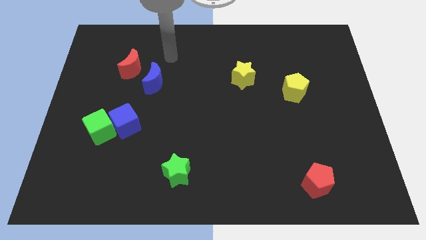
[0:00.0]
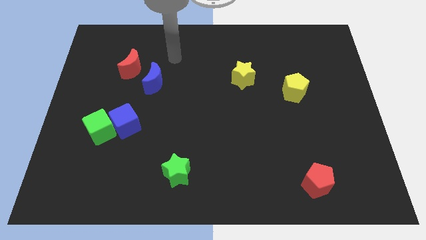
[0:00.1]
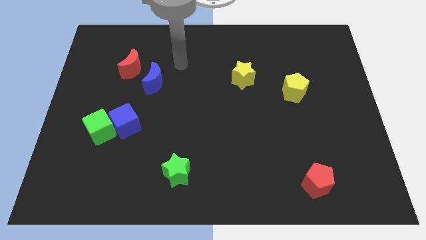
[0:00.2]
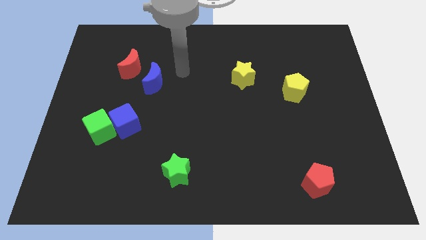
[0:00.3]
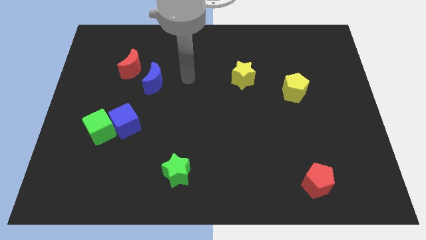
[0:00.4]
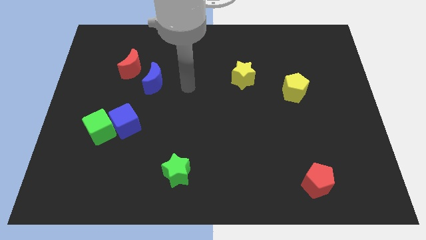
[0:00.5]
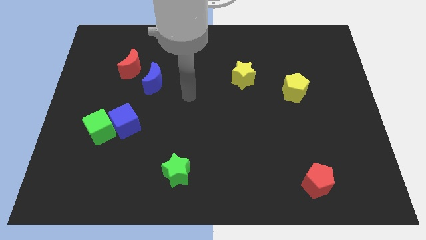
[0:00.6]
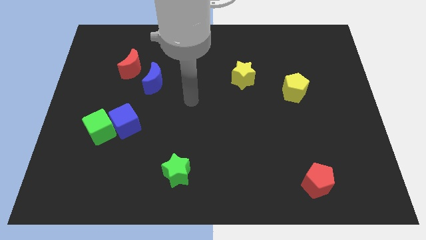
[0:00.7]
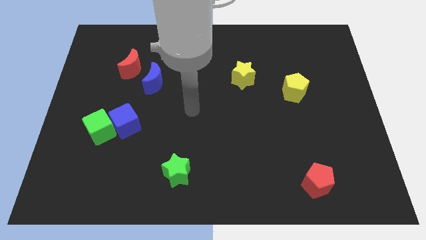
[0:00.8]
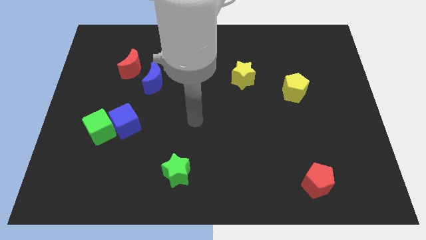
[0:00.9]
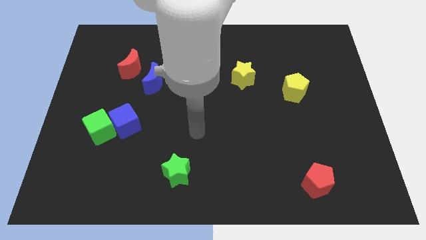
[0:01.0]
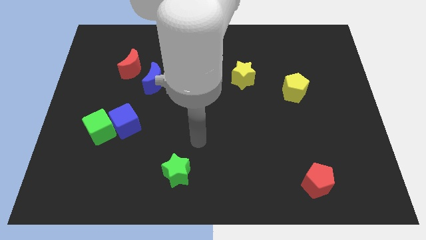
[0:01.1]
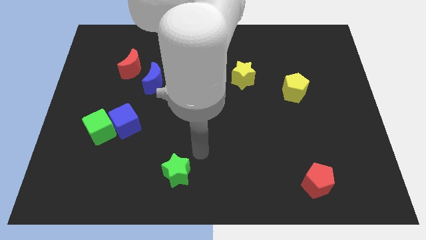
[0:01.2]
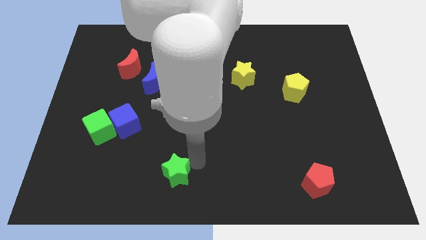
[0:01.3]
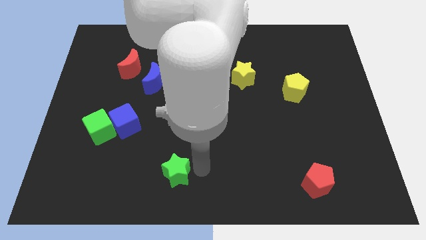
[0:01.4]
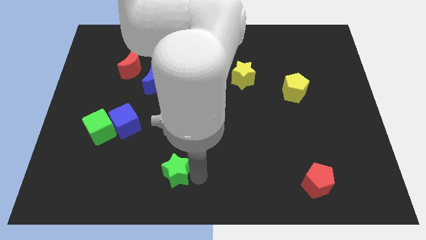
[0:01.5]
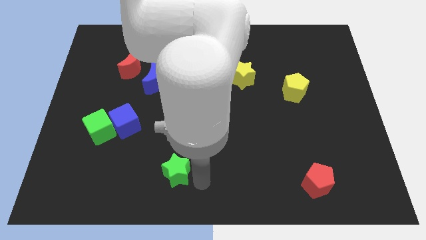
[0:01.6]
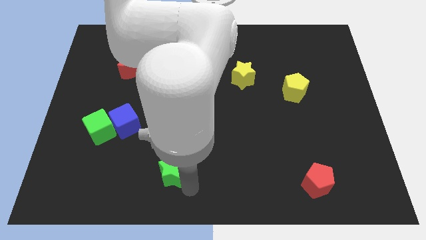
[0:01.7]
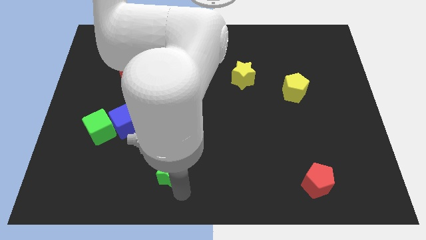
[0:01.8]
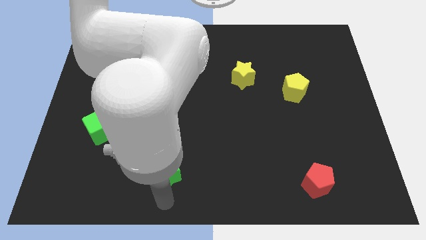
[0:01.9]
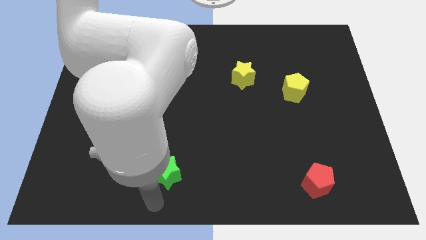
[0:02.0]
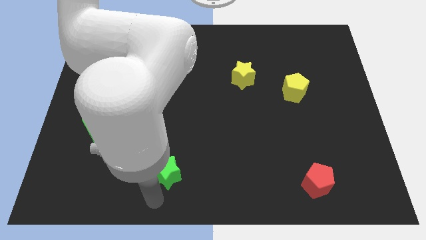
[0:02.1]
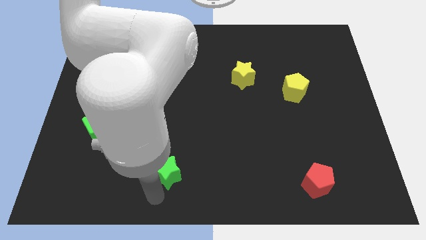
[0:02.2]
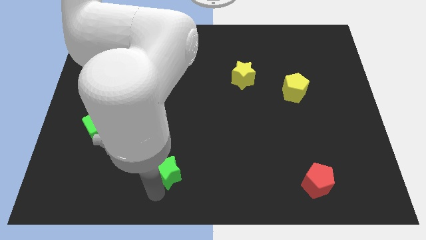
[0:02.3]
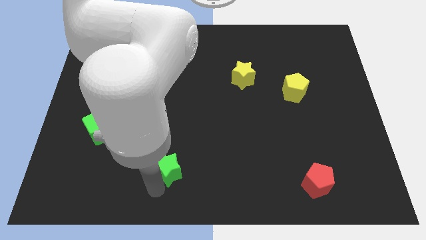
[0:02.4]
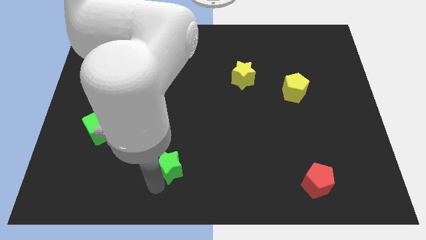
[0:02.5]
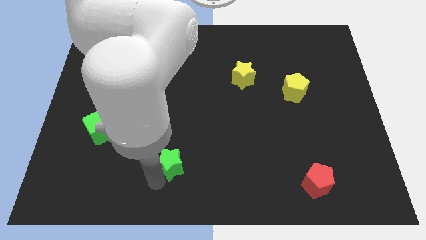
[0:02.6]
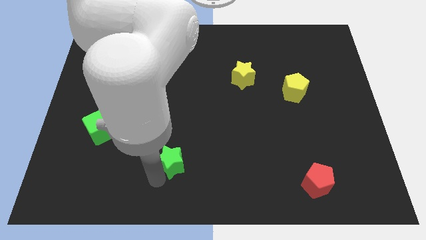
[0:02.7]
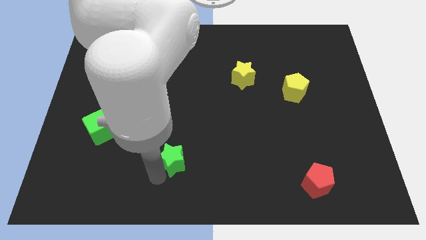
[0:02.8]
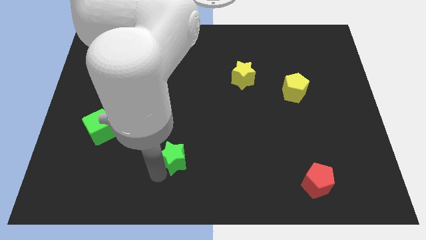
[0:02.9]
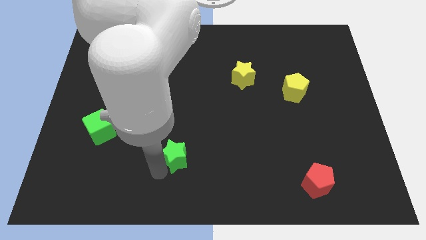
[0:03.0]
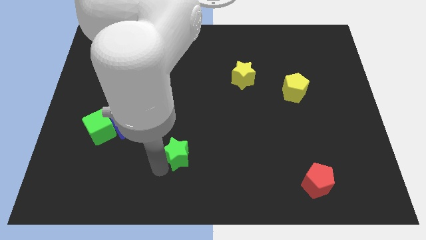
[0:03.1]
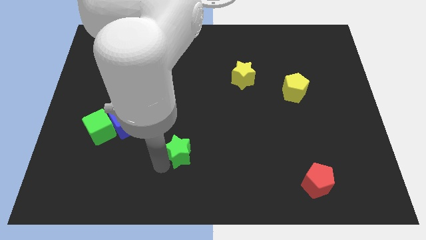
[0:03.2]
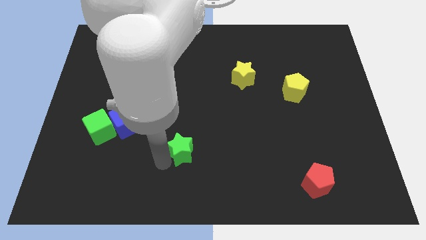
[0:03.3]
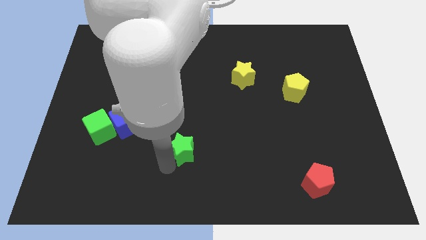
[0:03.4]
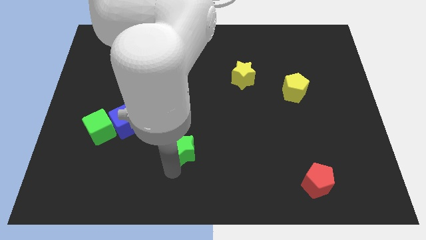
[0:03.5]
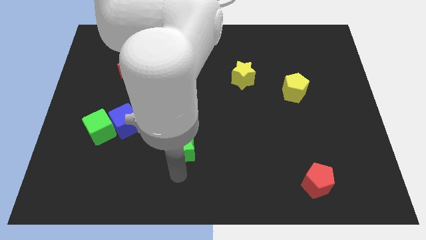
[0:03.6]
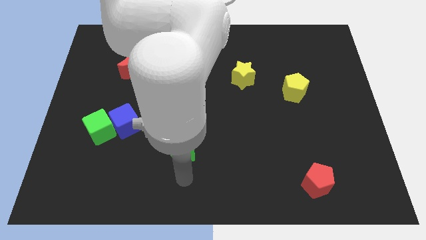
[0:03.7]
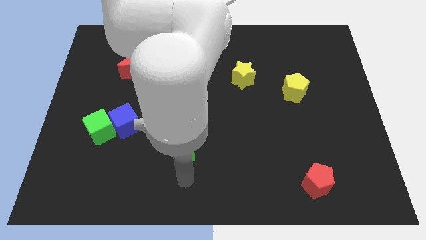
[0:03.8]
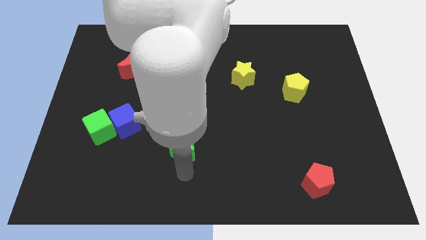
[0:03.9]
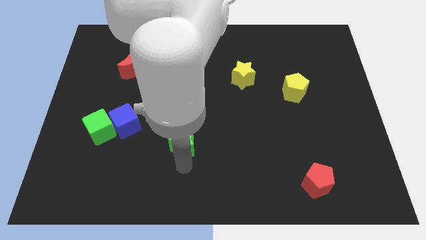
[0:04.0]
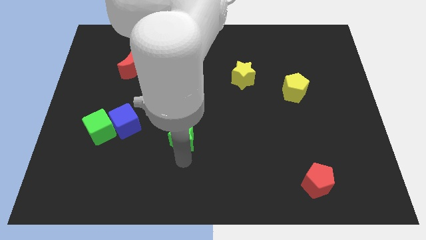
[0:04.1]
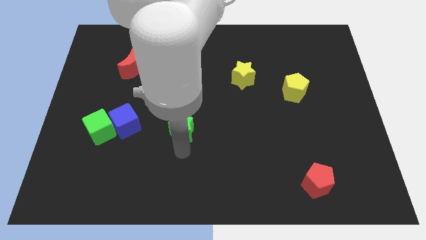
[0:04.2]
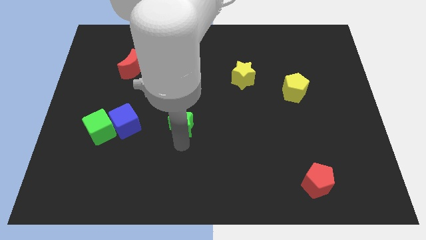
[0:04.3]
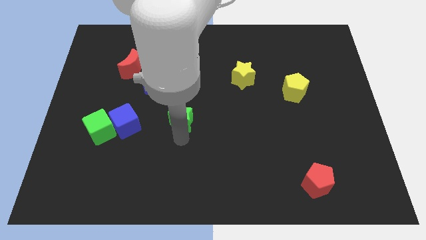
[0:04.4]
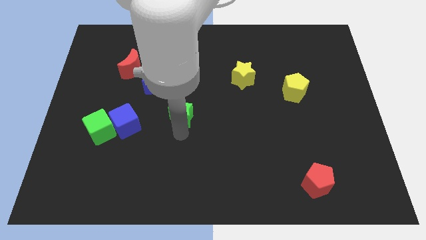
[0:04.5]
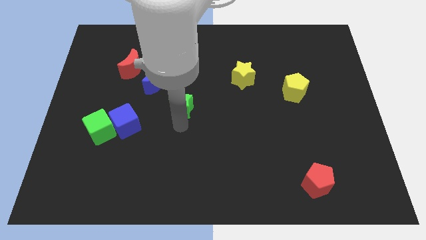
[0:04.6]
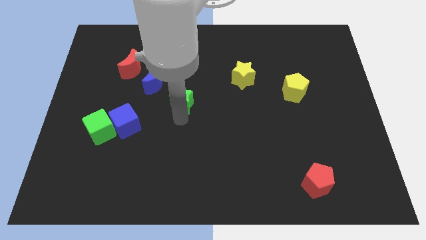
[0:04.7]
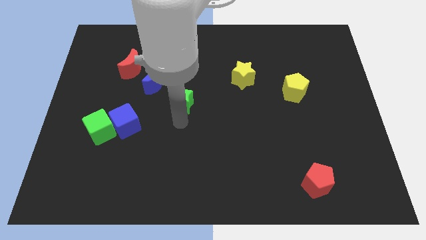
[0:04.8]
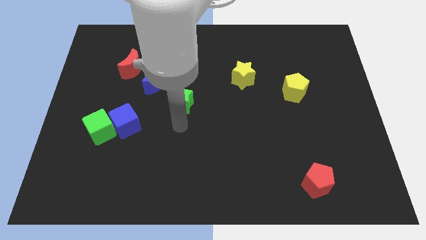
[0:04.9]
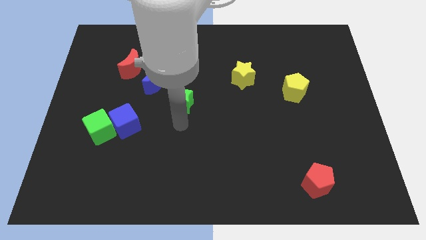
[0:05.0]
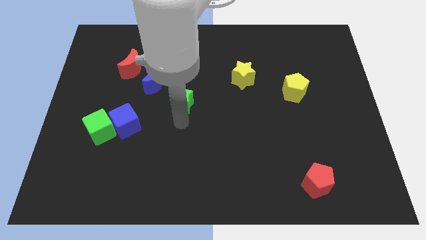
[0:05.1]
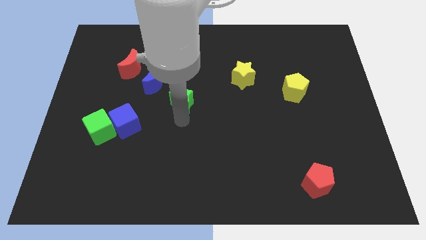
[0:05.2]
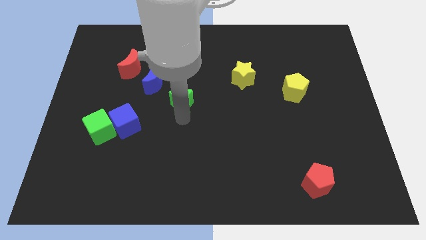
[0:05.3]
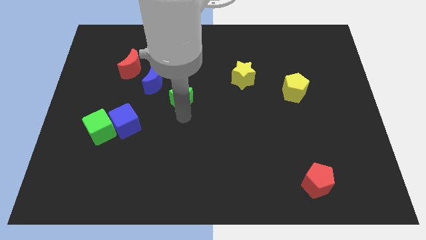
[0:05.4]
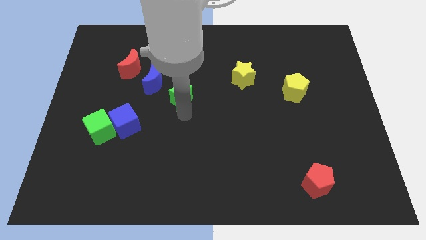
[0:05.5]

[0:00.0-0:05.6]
move the green star upwards

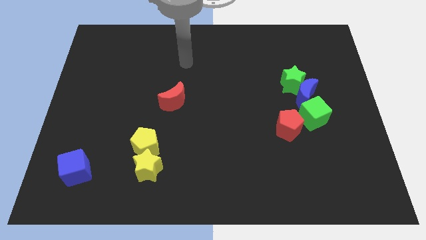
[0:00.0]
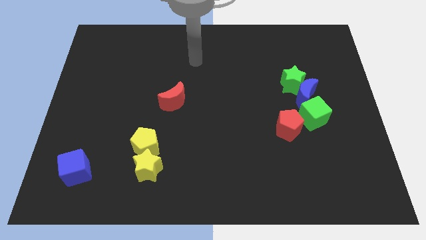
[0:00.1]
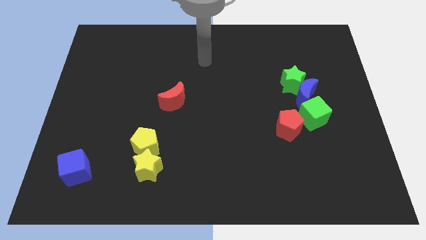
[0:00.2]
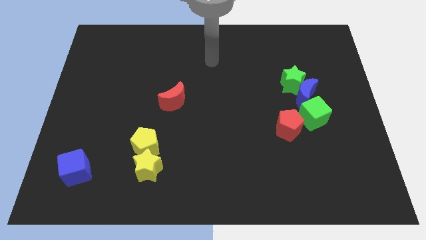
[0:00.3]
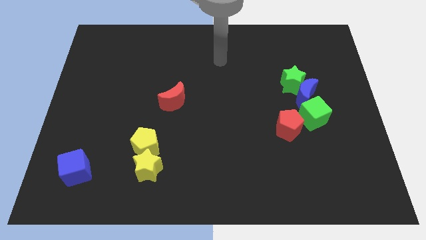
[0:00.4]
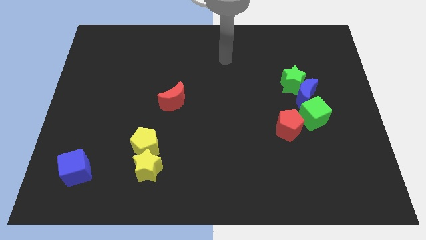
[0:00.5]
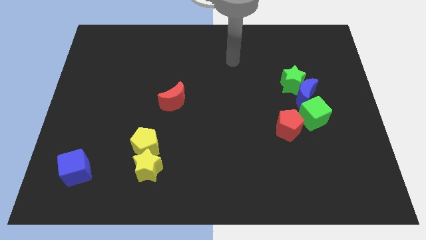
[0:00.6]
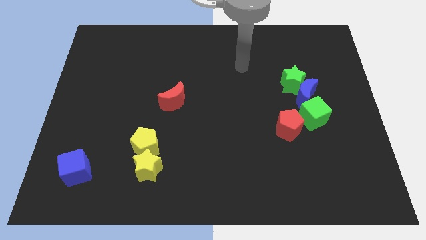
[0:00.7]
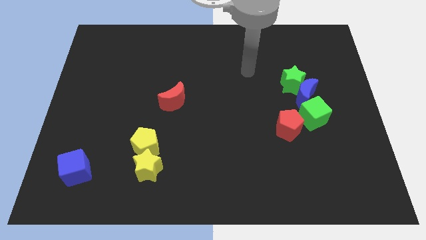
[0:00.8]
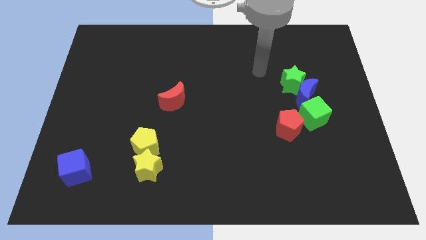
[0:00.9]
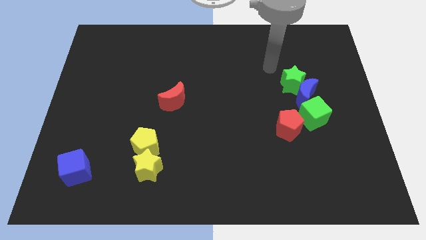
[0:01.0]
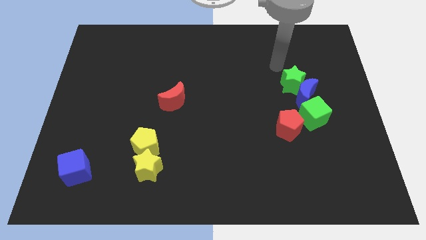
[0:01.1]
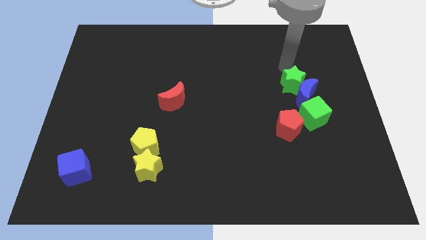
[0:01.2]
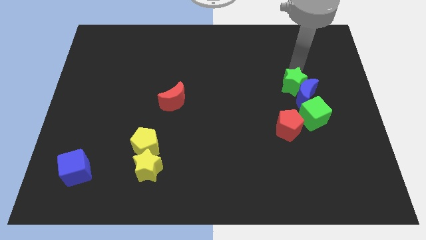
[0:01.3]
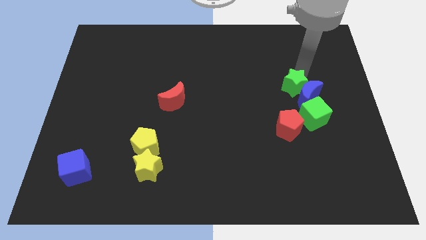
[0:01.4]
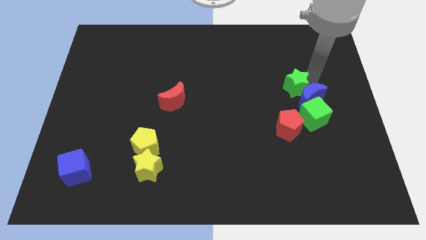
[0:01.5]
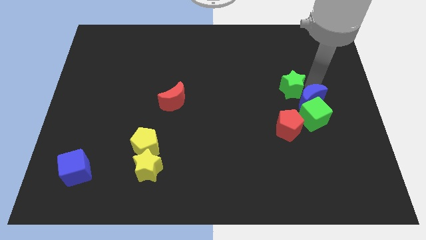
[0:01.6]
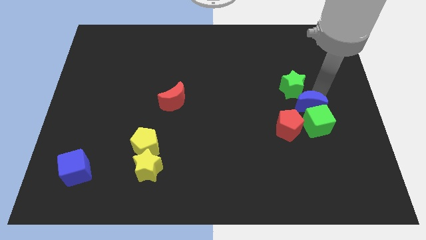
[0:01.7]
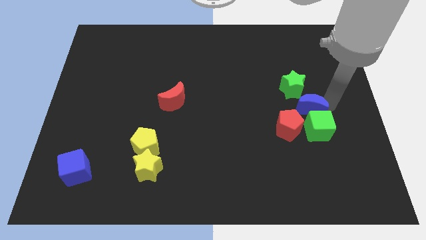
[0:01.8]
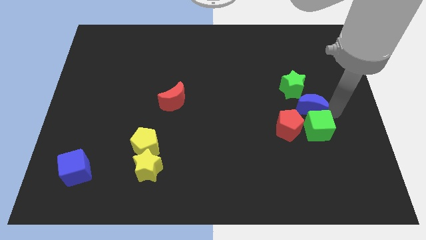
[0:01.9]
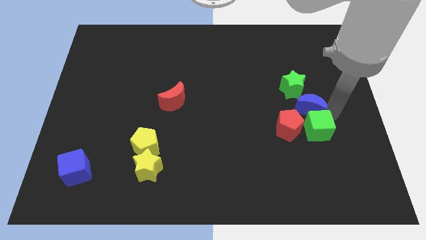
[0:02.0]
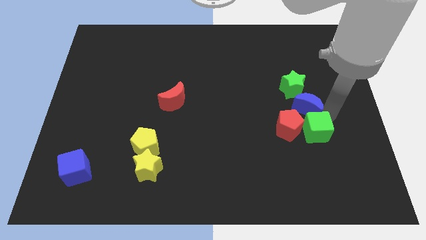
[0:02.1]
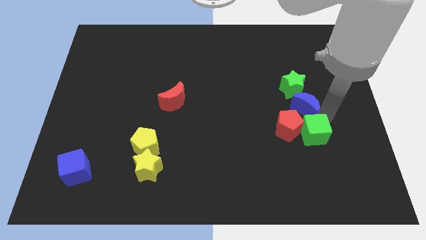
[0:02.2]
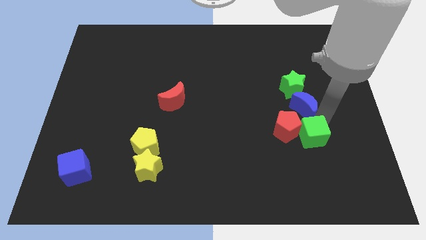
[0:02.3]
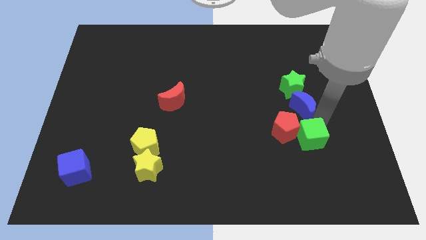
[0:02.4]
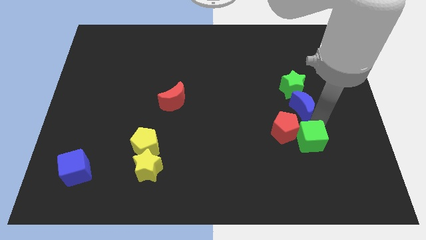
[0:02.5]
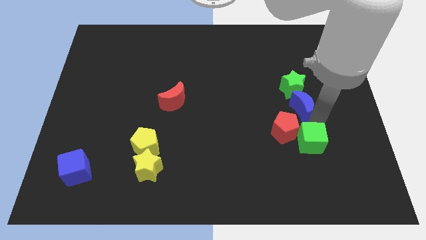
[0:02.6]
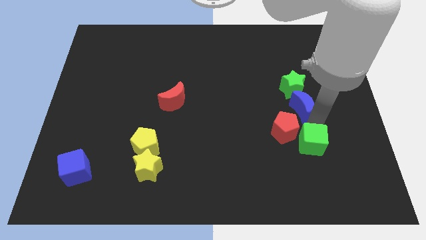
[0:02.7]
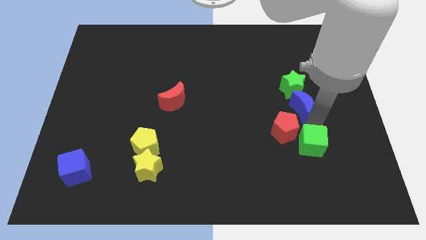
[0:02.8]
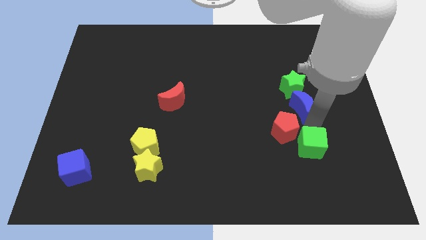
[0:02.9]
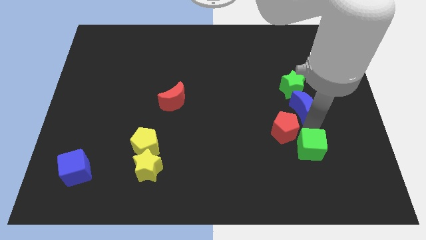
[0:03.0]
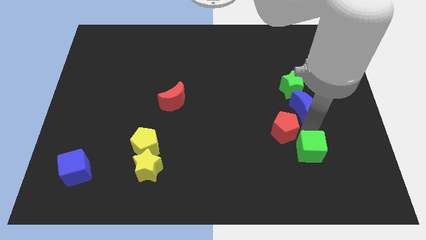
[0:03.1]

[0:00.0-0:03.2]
push the green cube a little downwards and then to the left
